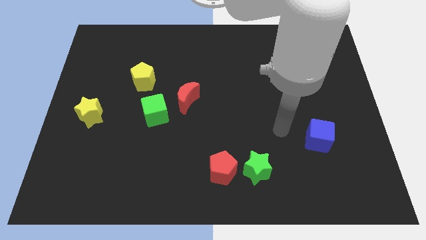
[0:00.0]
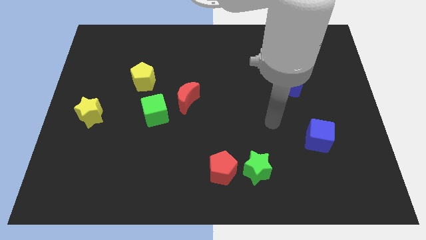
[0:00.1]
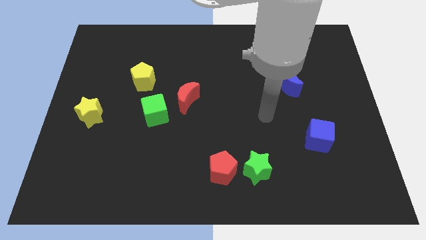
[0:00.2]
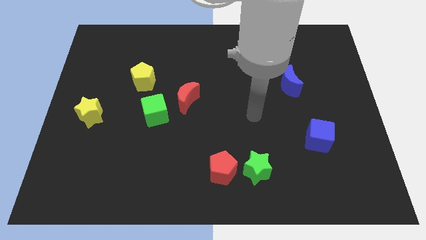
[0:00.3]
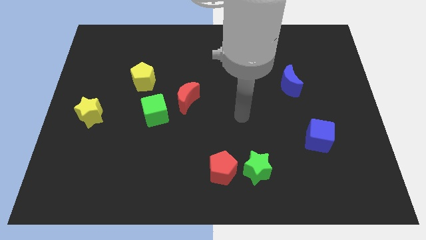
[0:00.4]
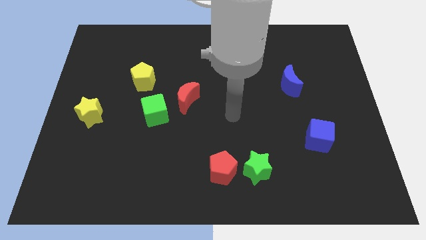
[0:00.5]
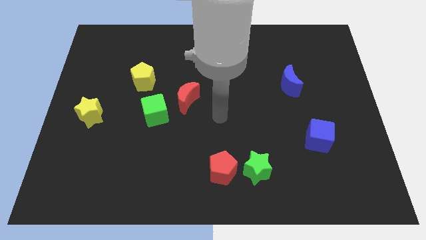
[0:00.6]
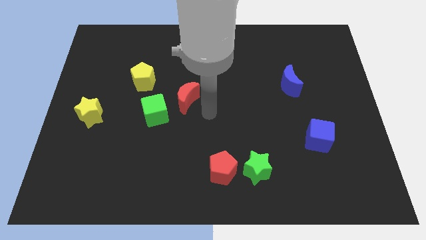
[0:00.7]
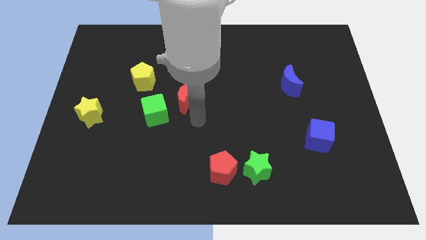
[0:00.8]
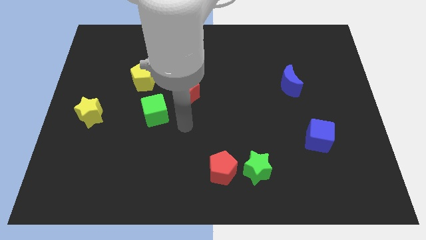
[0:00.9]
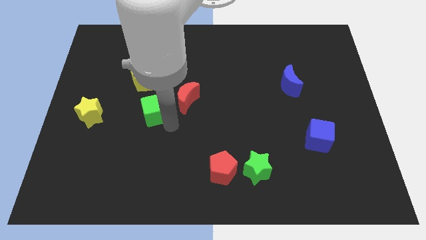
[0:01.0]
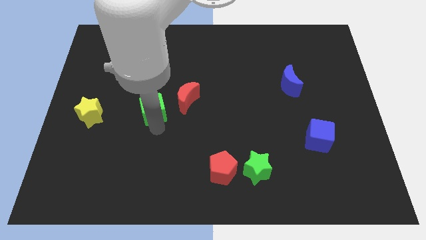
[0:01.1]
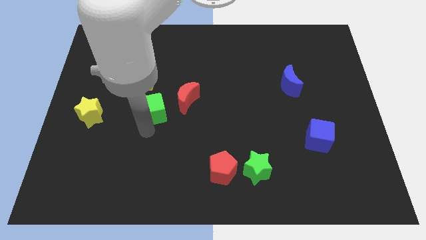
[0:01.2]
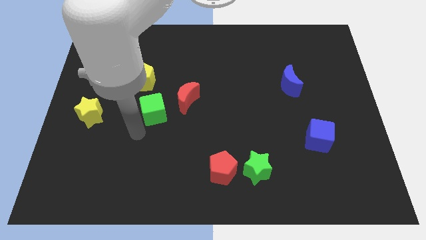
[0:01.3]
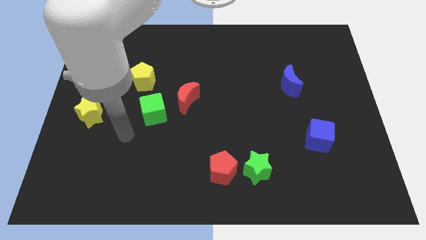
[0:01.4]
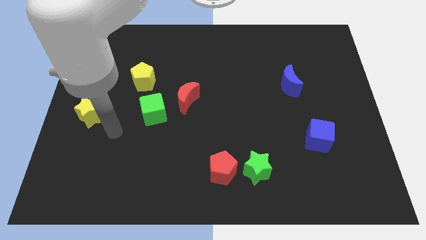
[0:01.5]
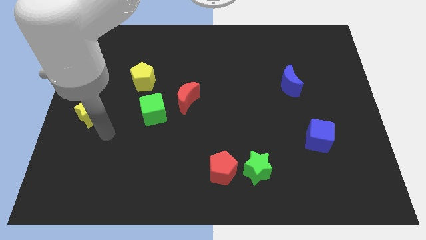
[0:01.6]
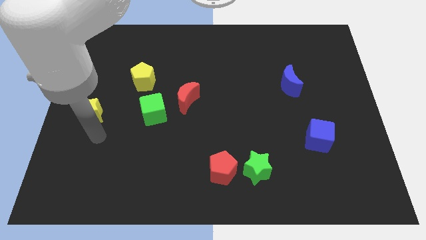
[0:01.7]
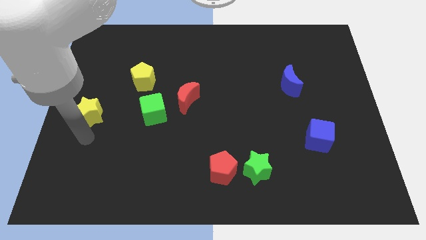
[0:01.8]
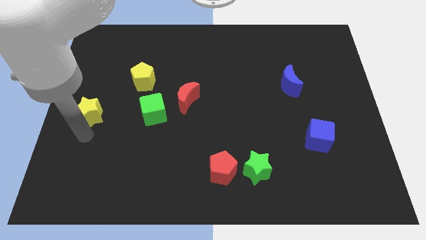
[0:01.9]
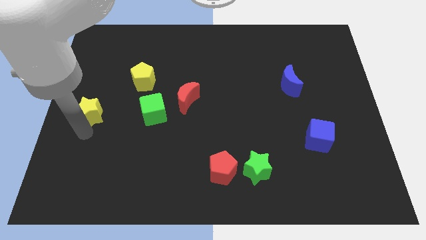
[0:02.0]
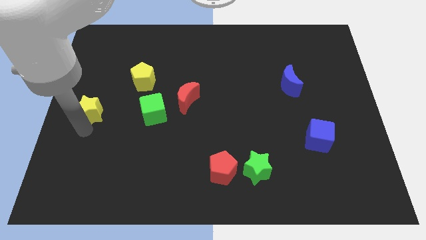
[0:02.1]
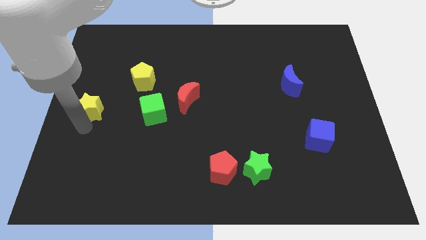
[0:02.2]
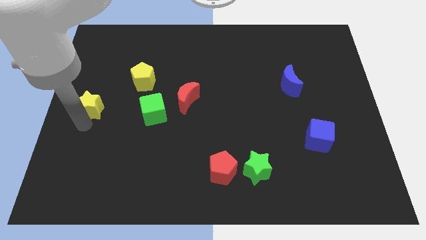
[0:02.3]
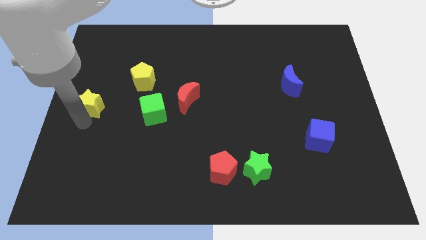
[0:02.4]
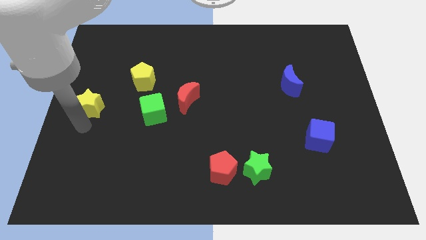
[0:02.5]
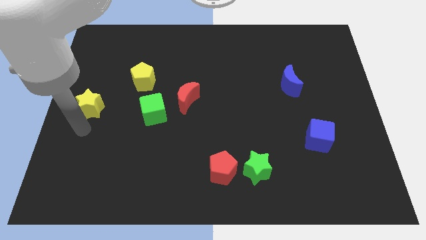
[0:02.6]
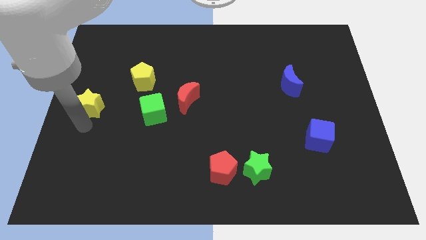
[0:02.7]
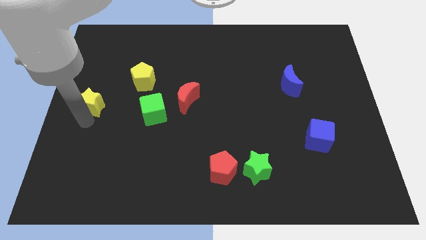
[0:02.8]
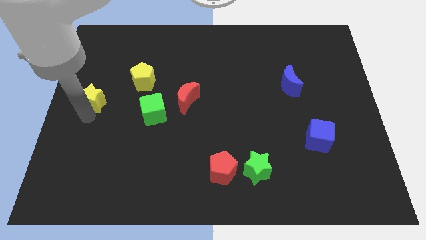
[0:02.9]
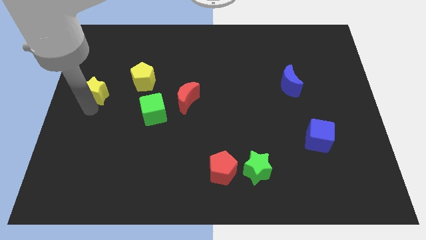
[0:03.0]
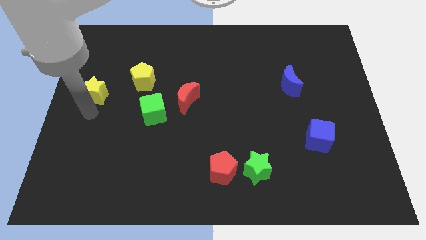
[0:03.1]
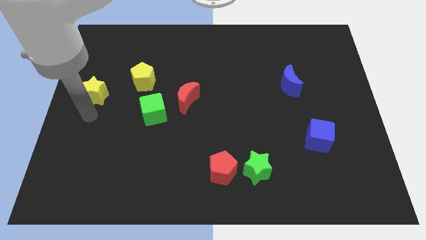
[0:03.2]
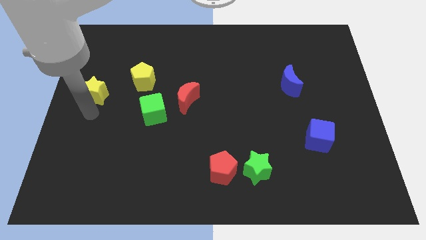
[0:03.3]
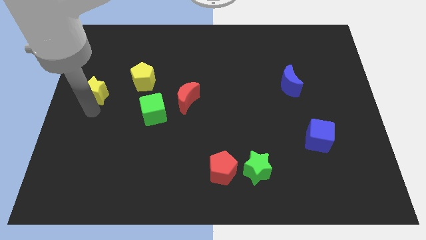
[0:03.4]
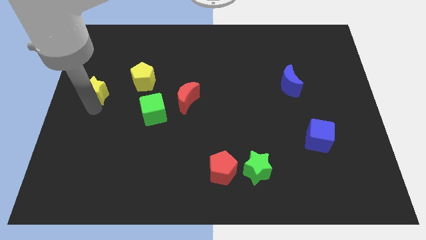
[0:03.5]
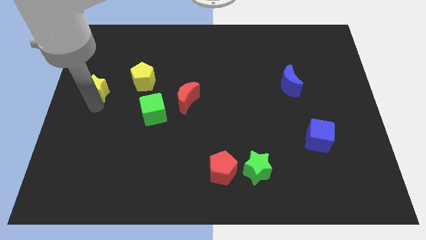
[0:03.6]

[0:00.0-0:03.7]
slide the yellow star a little bit upwards

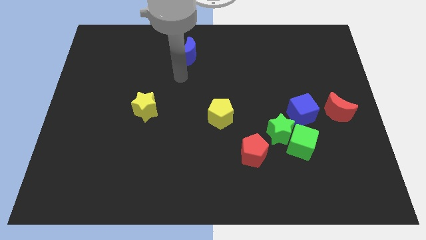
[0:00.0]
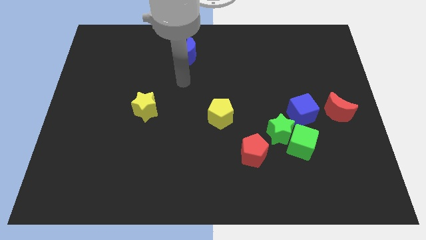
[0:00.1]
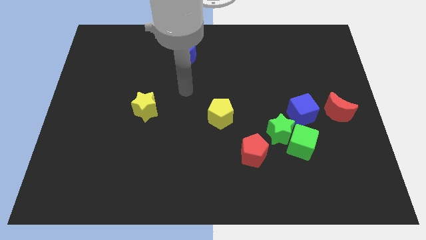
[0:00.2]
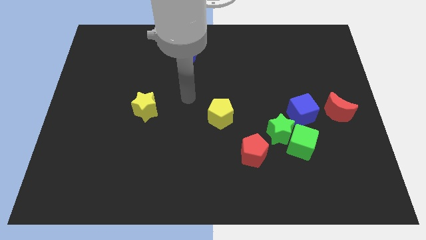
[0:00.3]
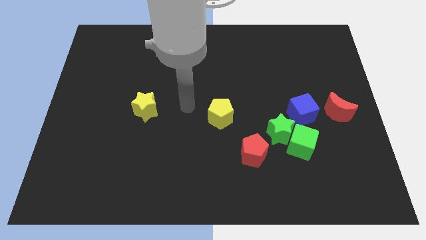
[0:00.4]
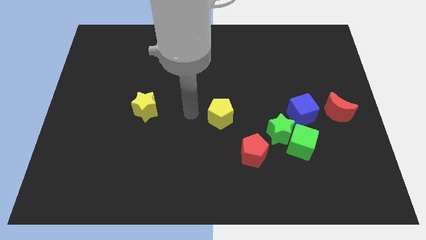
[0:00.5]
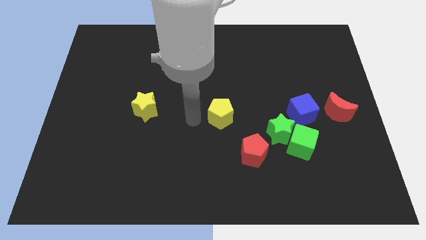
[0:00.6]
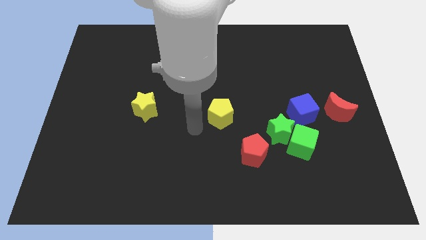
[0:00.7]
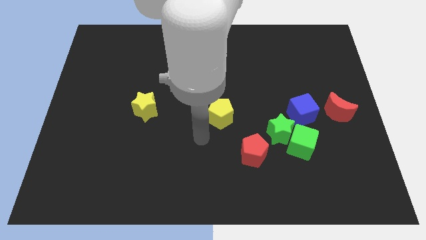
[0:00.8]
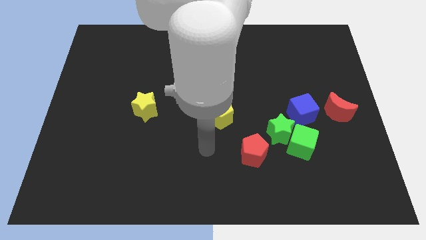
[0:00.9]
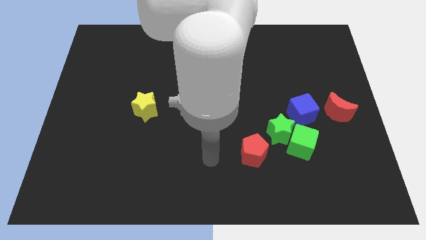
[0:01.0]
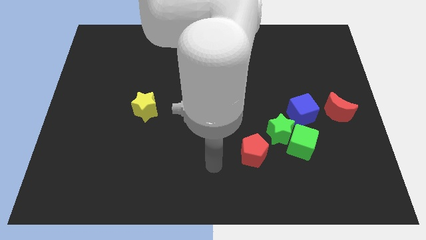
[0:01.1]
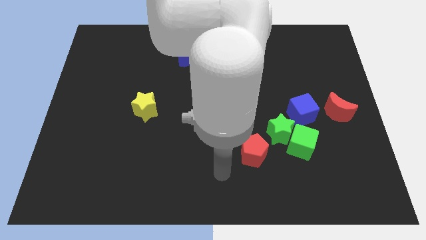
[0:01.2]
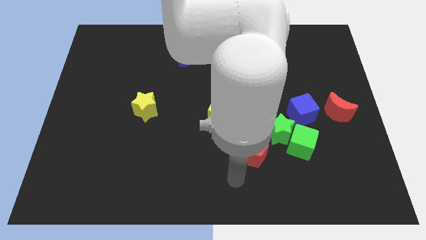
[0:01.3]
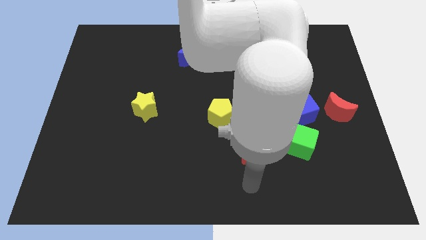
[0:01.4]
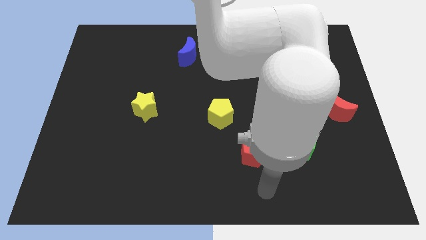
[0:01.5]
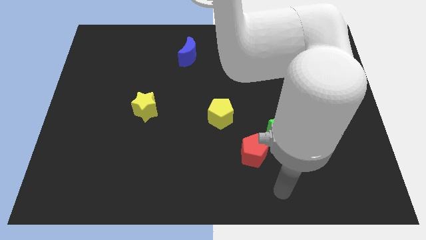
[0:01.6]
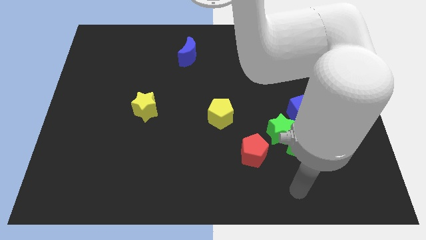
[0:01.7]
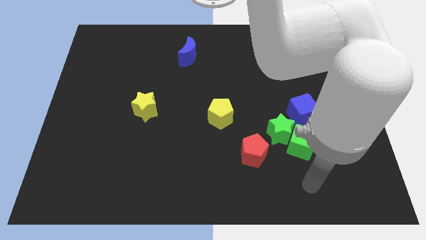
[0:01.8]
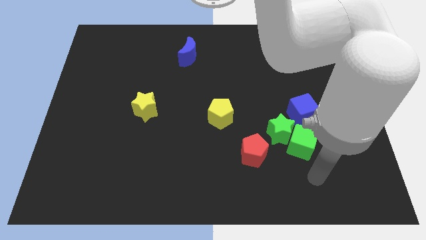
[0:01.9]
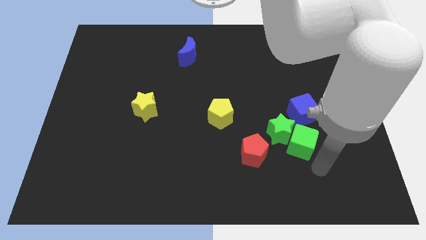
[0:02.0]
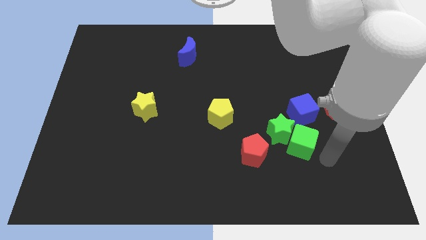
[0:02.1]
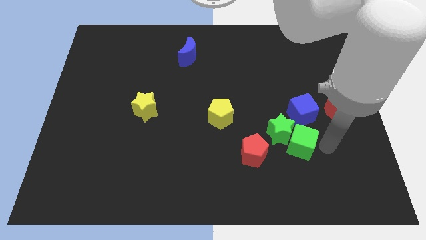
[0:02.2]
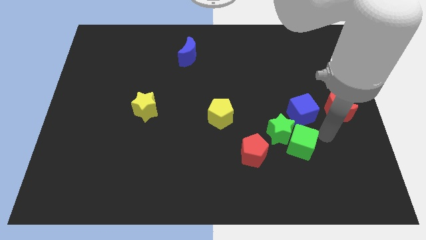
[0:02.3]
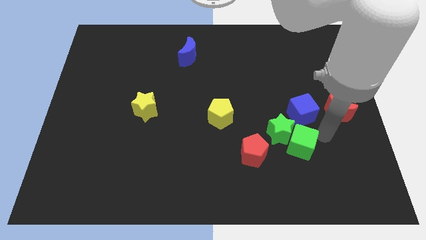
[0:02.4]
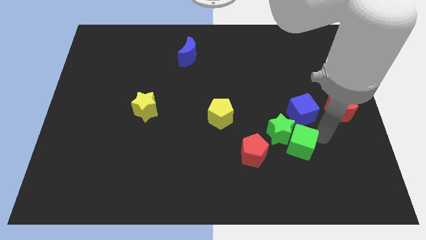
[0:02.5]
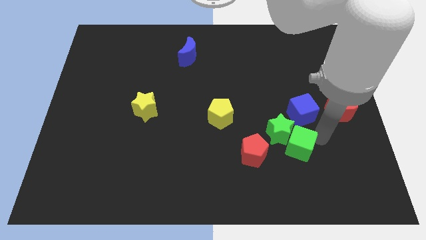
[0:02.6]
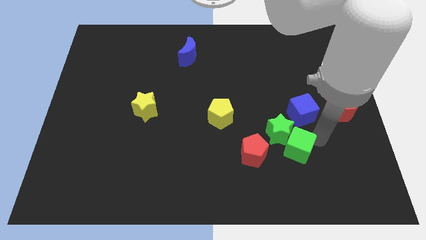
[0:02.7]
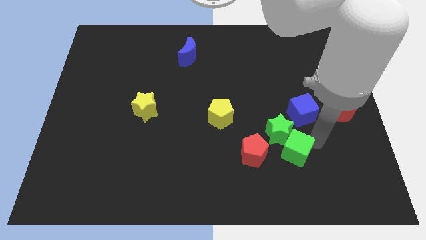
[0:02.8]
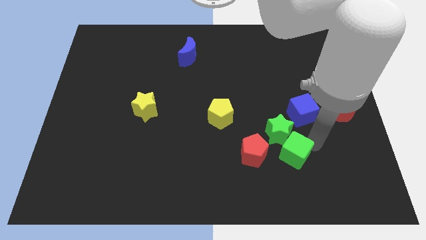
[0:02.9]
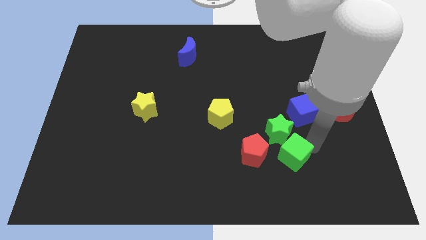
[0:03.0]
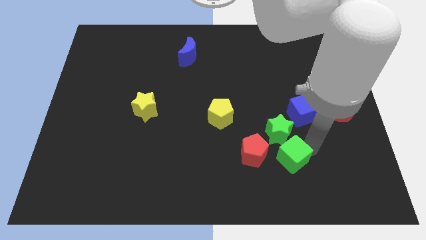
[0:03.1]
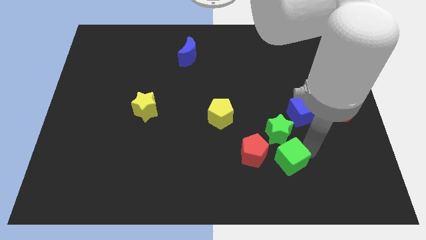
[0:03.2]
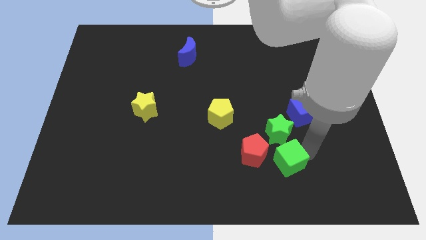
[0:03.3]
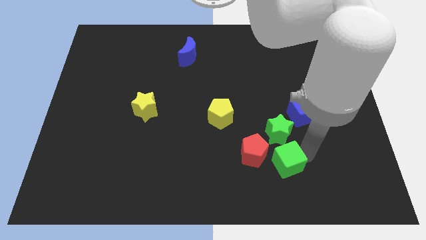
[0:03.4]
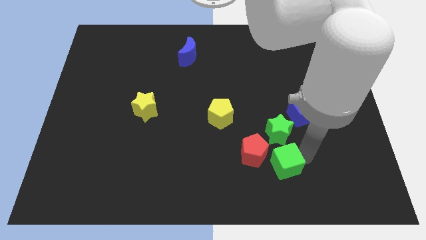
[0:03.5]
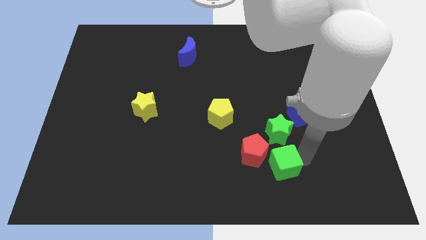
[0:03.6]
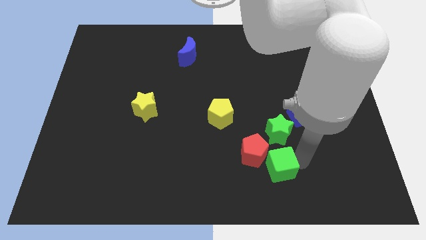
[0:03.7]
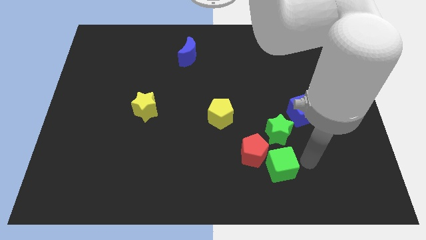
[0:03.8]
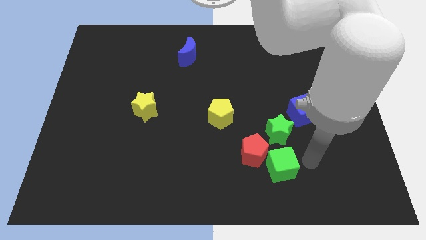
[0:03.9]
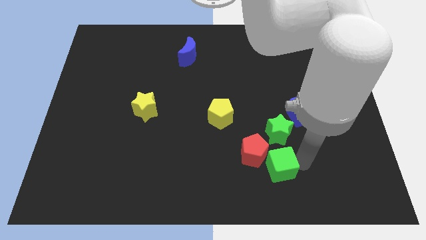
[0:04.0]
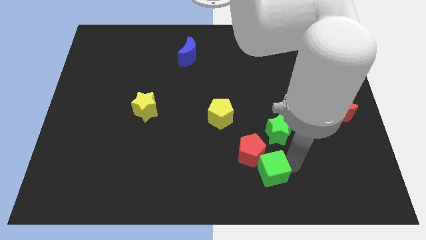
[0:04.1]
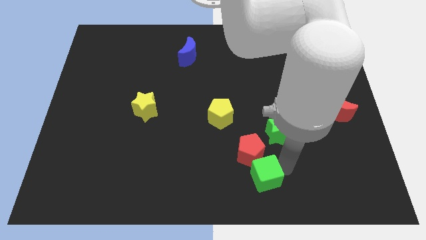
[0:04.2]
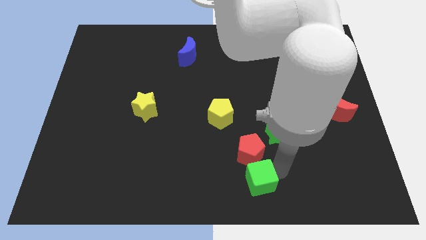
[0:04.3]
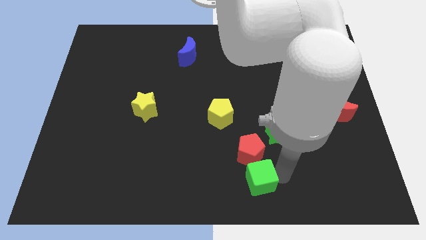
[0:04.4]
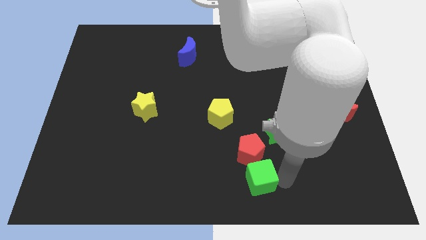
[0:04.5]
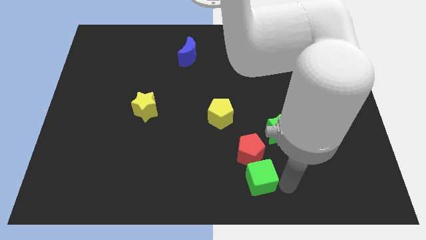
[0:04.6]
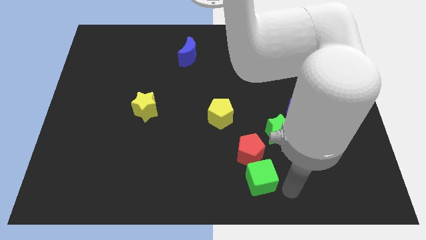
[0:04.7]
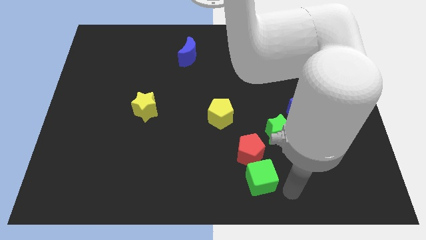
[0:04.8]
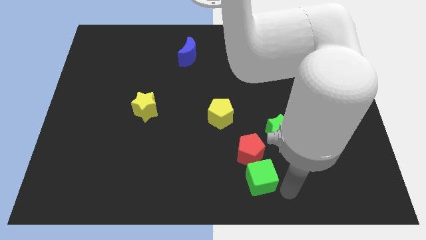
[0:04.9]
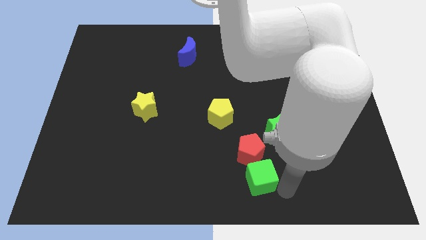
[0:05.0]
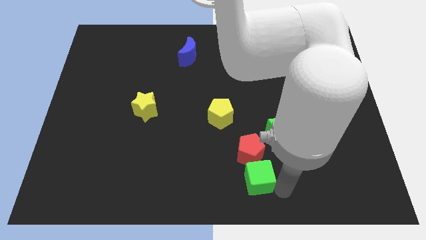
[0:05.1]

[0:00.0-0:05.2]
slide the green cube to the left somewhat
